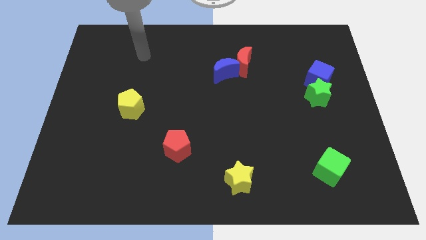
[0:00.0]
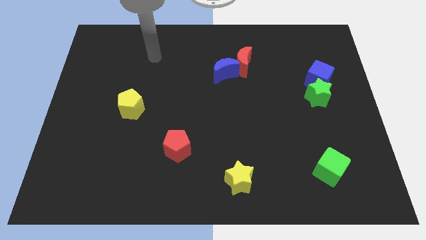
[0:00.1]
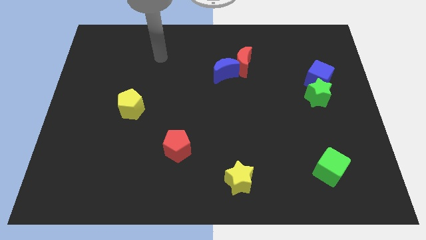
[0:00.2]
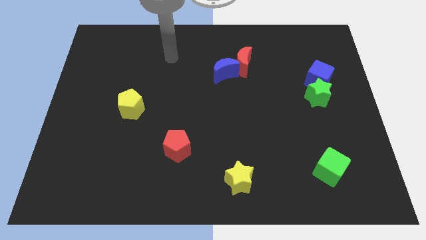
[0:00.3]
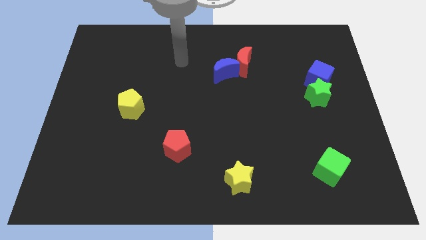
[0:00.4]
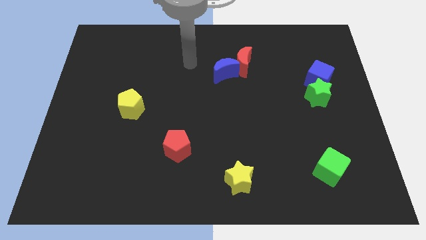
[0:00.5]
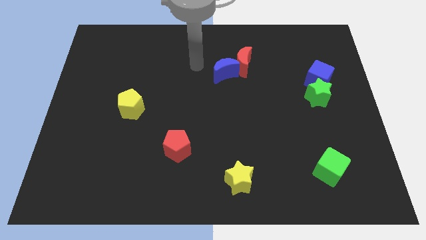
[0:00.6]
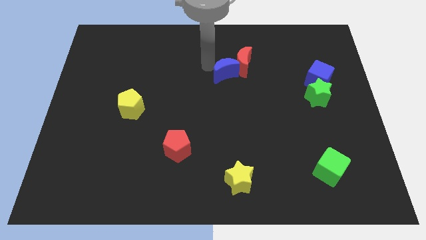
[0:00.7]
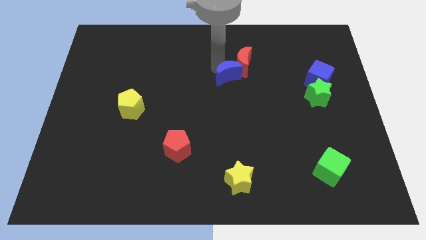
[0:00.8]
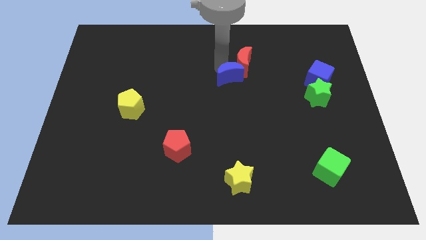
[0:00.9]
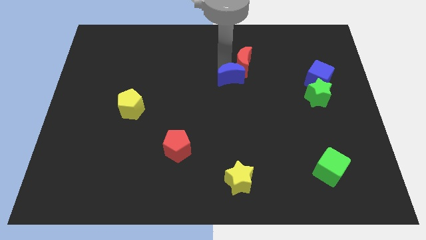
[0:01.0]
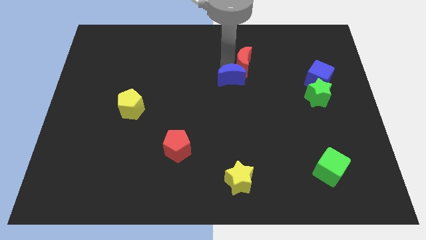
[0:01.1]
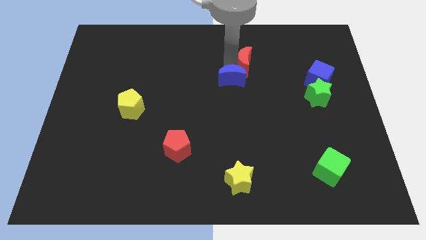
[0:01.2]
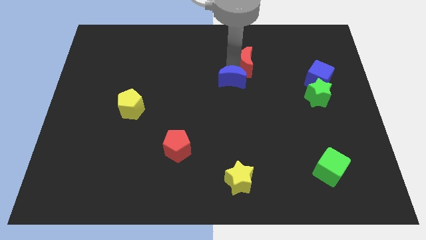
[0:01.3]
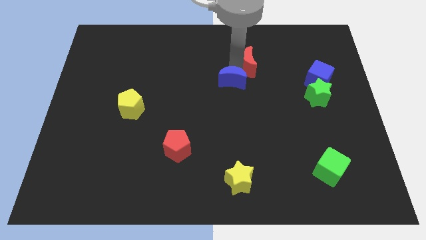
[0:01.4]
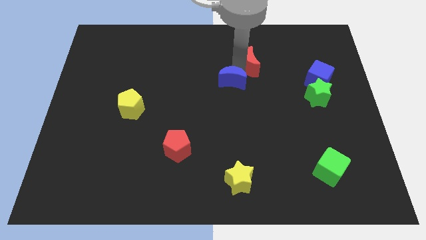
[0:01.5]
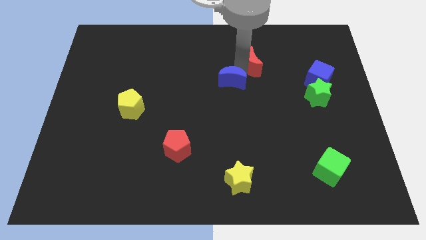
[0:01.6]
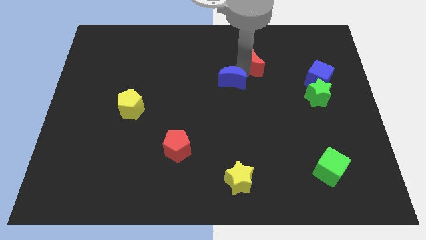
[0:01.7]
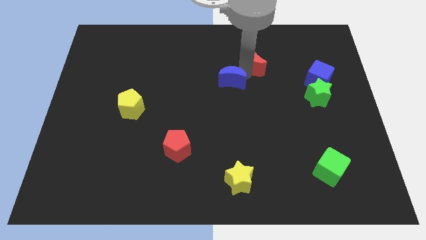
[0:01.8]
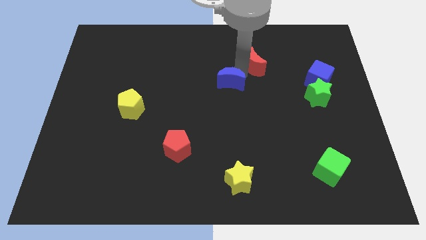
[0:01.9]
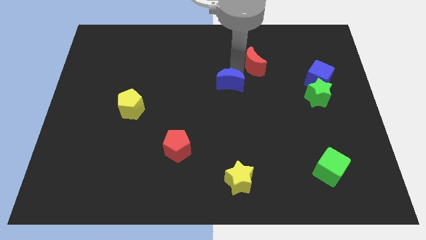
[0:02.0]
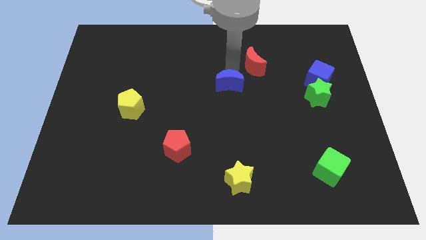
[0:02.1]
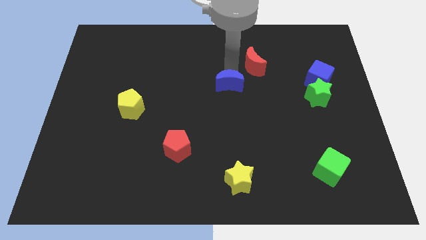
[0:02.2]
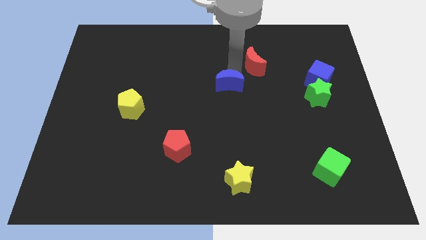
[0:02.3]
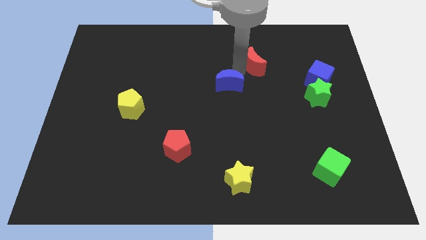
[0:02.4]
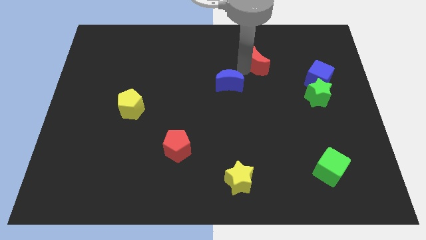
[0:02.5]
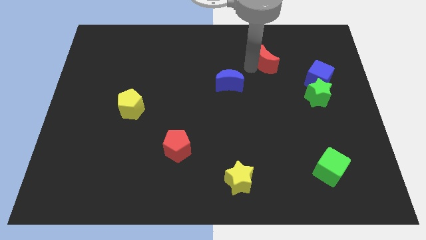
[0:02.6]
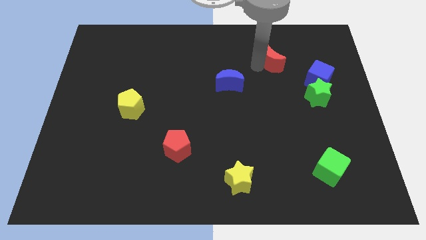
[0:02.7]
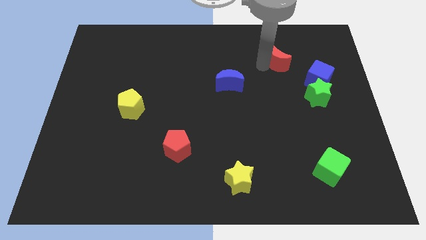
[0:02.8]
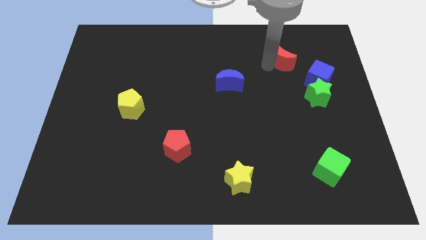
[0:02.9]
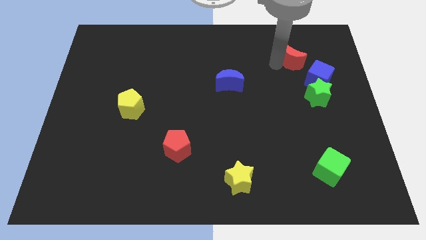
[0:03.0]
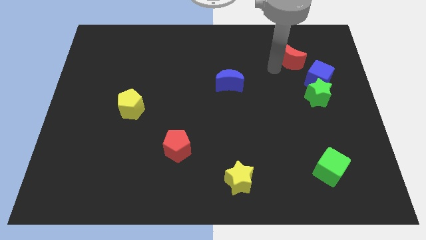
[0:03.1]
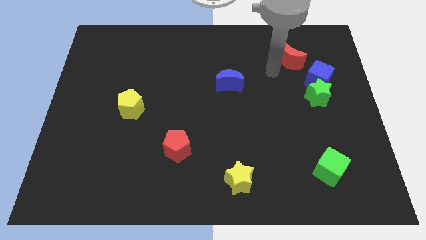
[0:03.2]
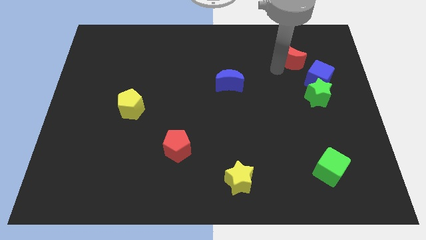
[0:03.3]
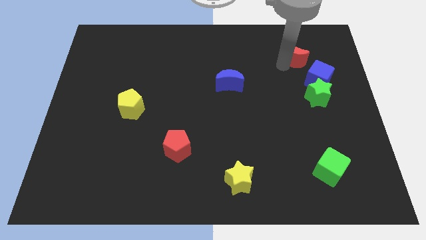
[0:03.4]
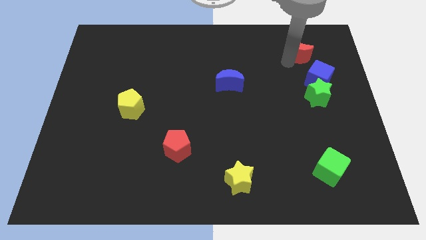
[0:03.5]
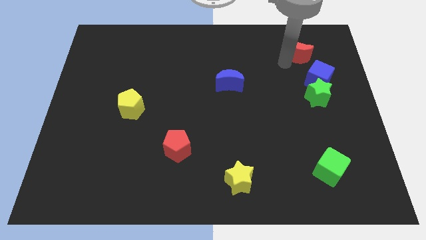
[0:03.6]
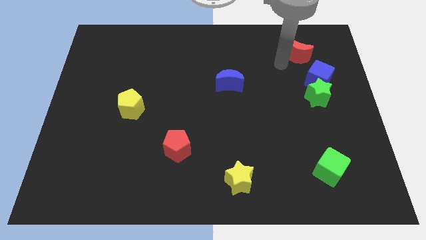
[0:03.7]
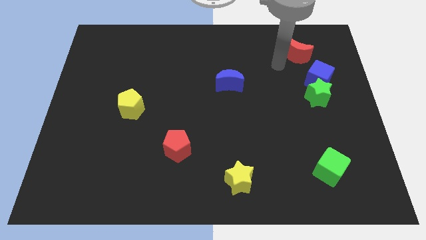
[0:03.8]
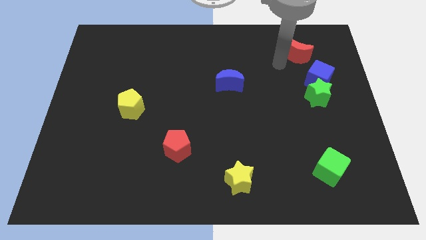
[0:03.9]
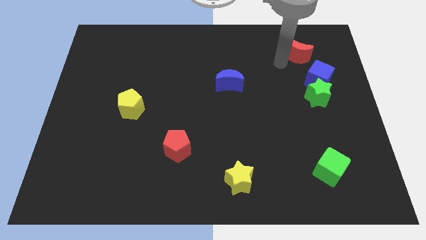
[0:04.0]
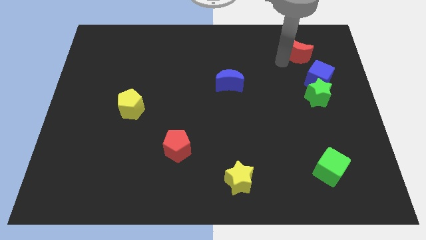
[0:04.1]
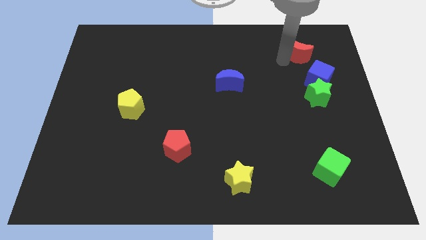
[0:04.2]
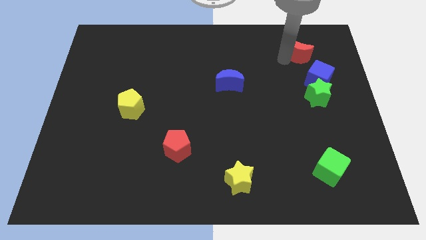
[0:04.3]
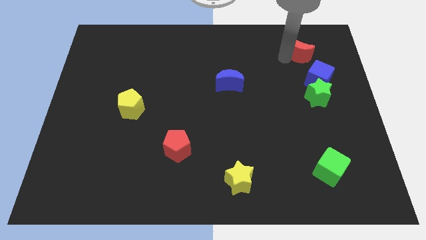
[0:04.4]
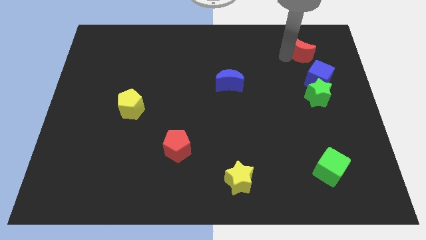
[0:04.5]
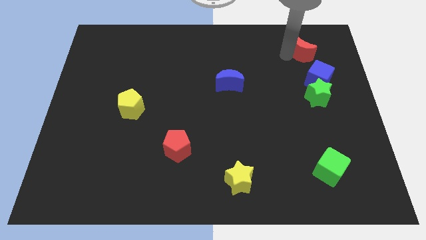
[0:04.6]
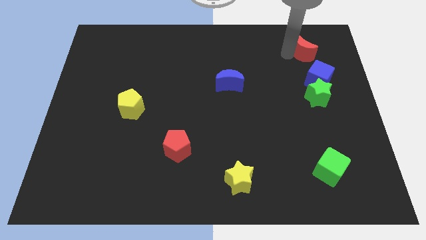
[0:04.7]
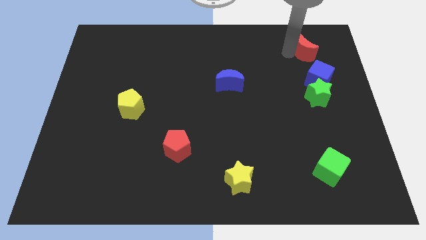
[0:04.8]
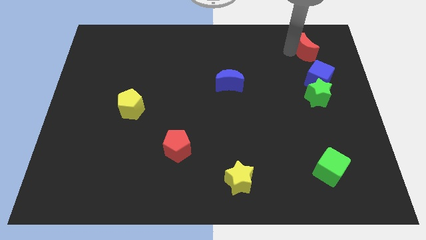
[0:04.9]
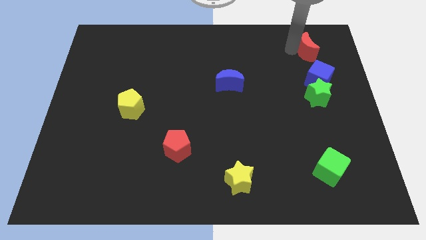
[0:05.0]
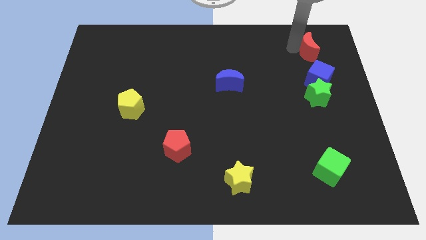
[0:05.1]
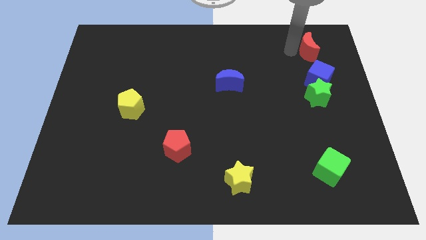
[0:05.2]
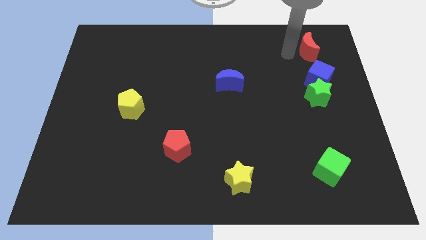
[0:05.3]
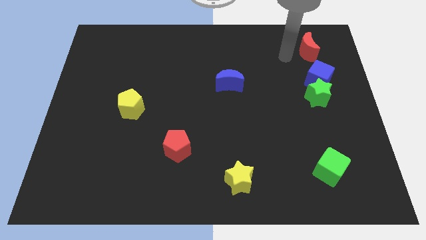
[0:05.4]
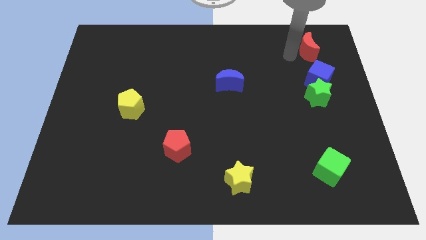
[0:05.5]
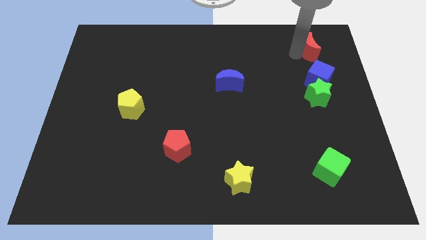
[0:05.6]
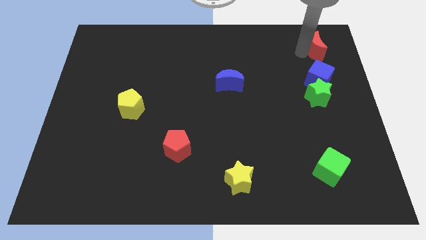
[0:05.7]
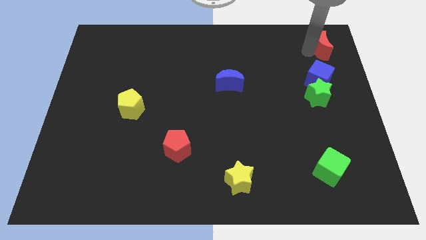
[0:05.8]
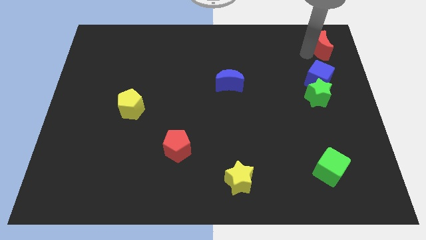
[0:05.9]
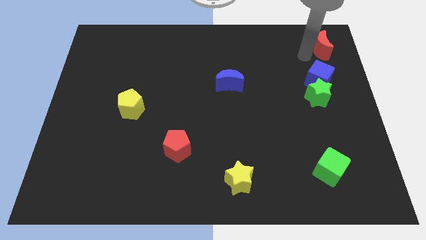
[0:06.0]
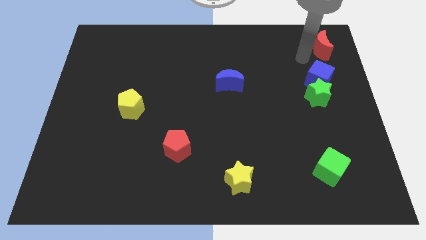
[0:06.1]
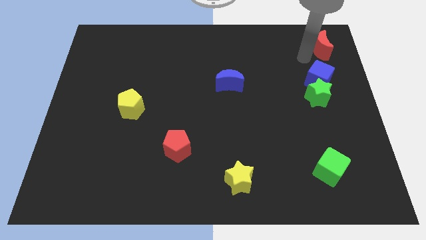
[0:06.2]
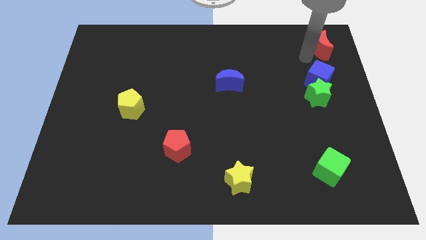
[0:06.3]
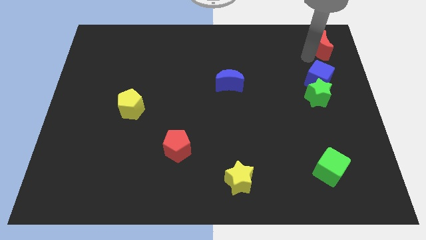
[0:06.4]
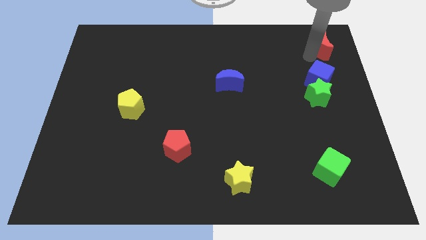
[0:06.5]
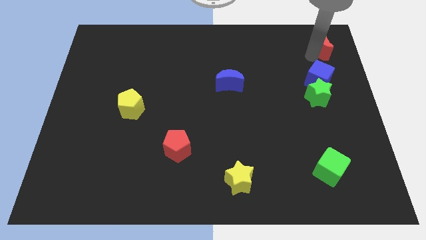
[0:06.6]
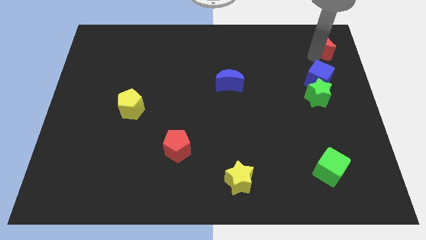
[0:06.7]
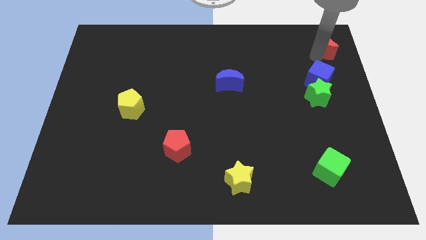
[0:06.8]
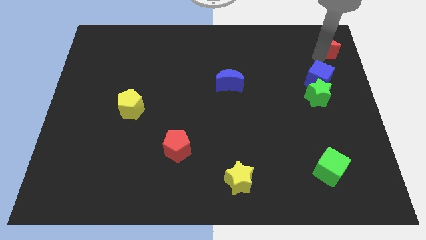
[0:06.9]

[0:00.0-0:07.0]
push the red moon to the top right of the board
